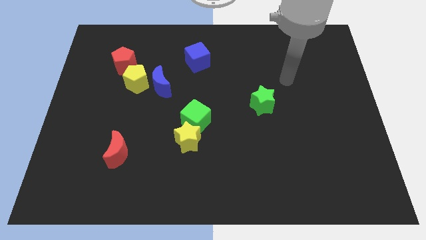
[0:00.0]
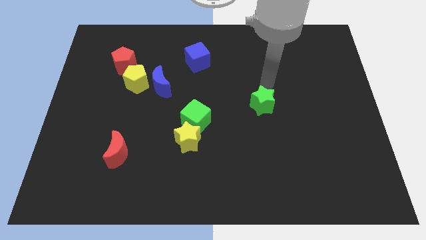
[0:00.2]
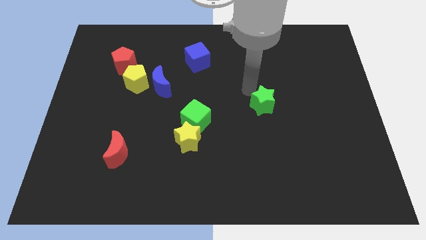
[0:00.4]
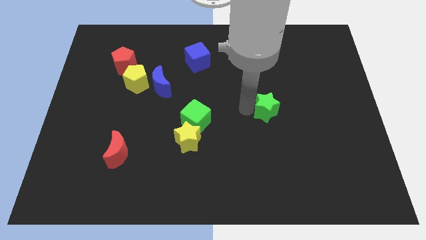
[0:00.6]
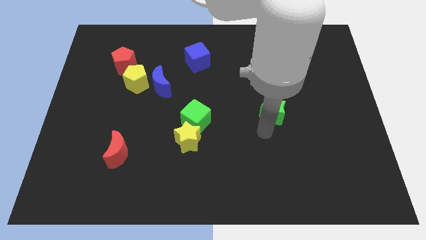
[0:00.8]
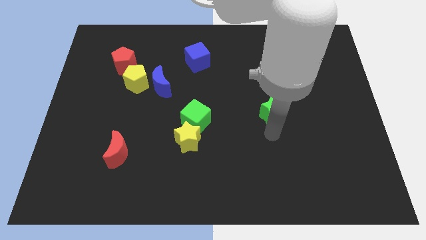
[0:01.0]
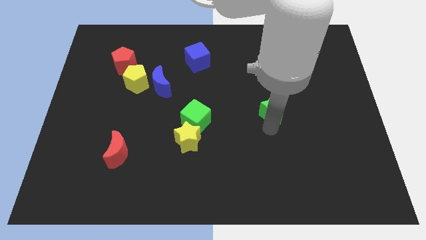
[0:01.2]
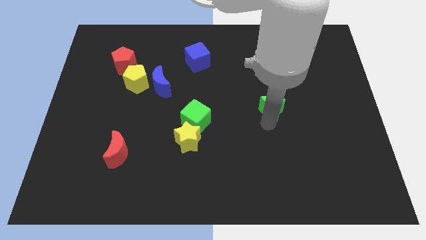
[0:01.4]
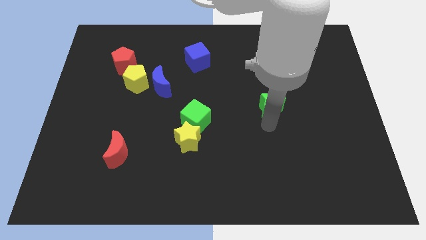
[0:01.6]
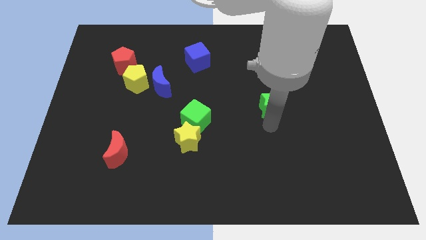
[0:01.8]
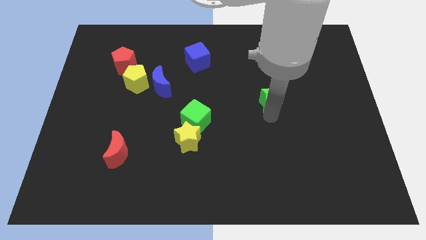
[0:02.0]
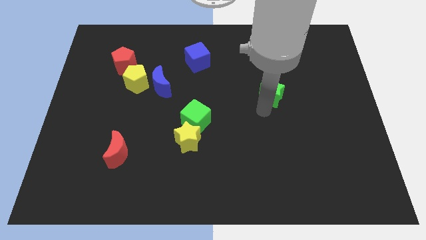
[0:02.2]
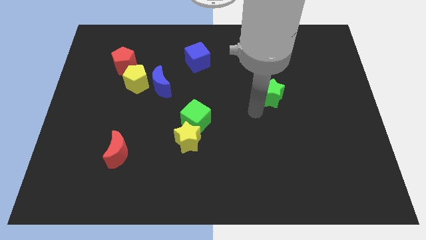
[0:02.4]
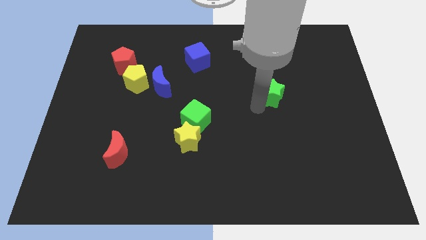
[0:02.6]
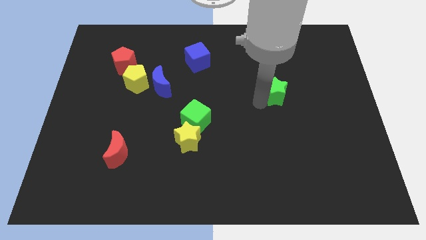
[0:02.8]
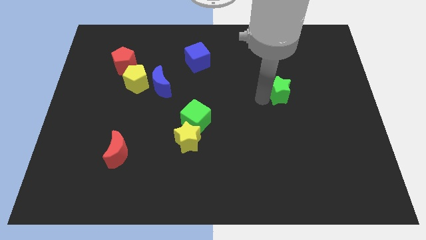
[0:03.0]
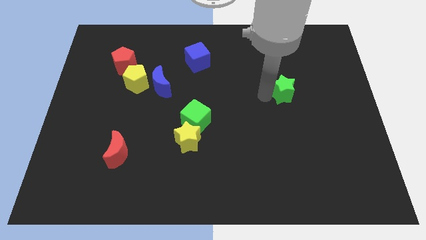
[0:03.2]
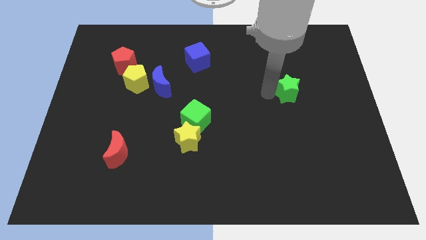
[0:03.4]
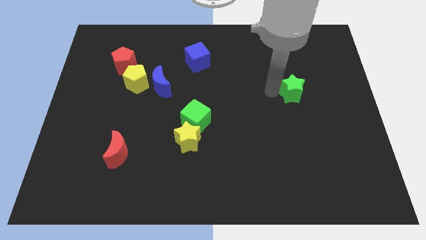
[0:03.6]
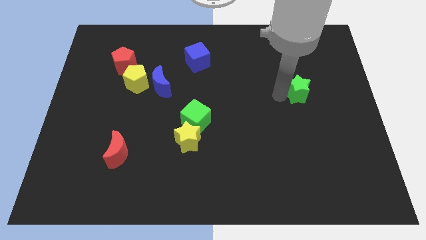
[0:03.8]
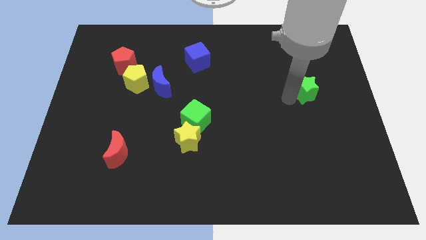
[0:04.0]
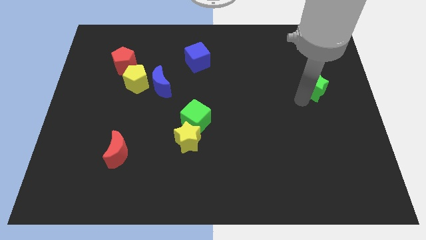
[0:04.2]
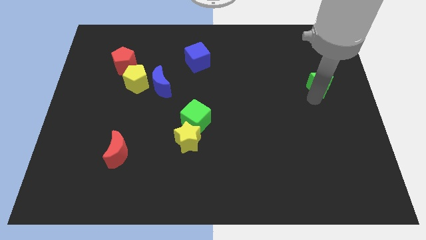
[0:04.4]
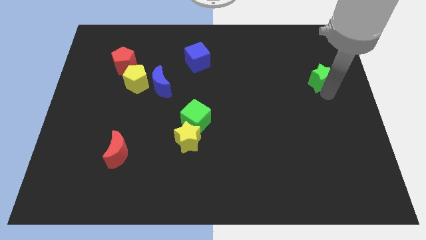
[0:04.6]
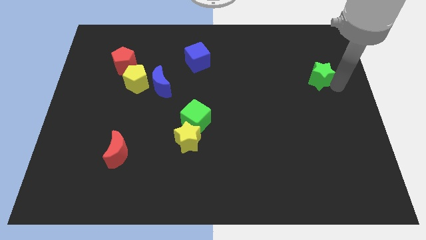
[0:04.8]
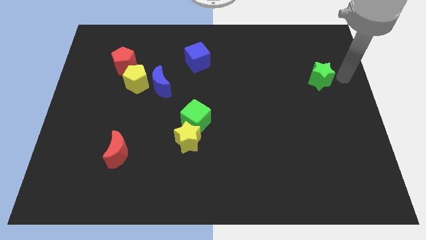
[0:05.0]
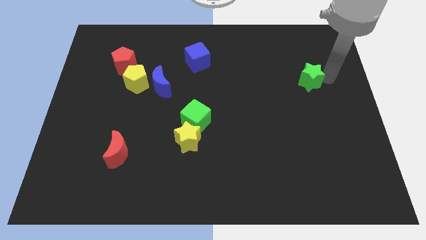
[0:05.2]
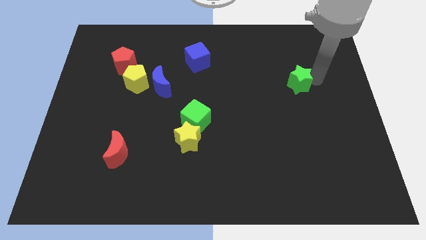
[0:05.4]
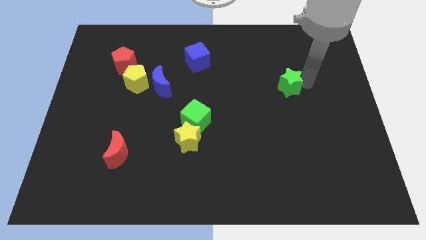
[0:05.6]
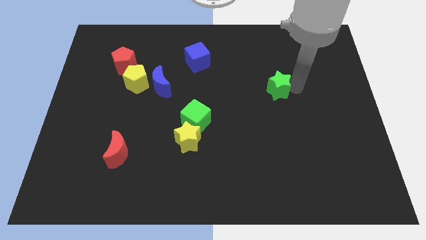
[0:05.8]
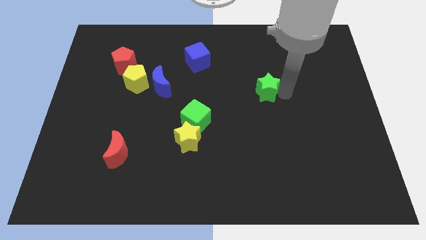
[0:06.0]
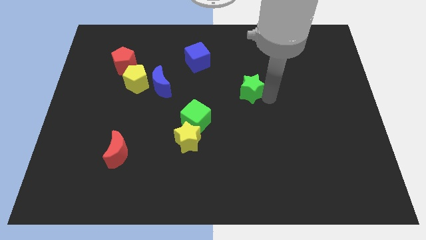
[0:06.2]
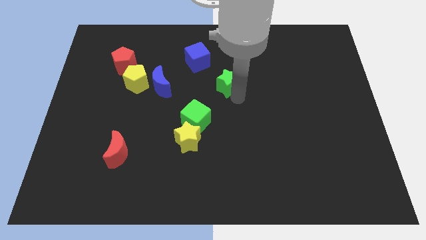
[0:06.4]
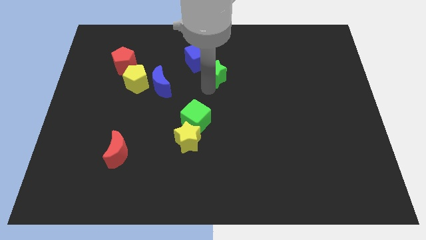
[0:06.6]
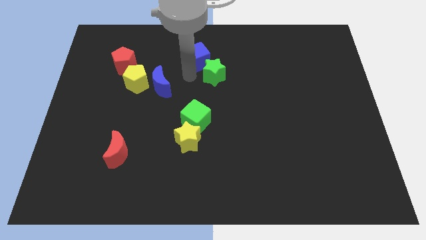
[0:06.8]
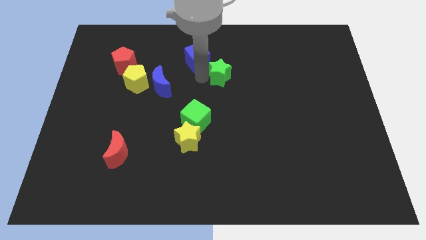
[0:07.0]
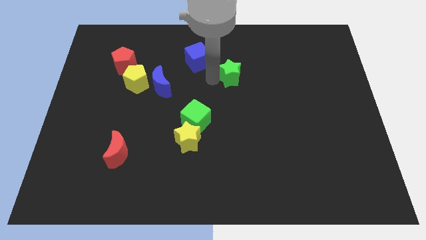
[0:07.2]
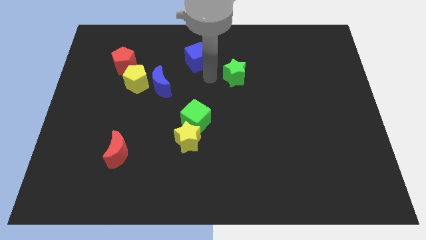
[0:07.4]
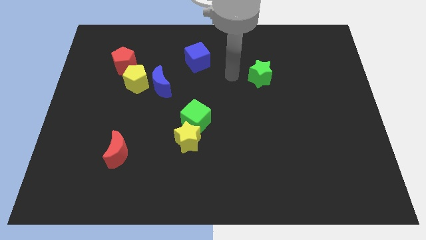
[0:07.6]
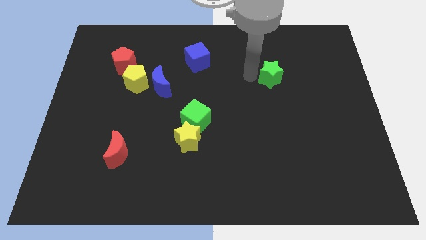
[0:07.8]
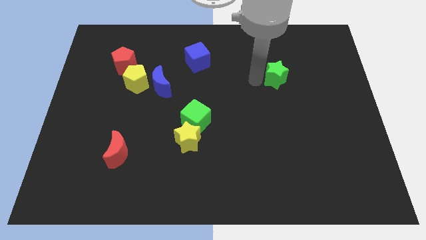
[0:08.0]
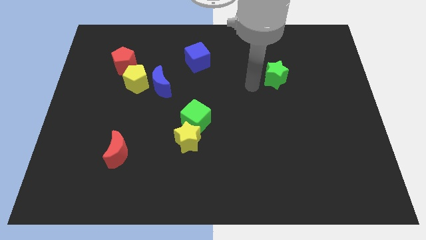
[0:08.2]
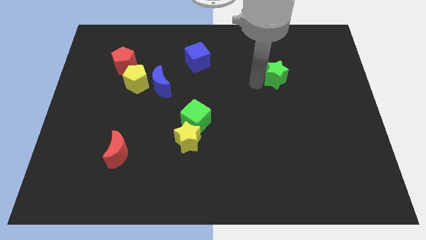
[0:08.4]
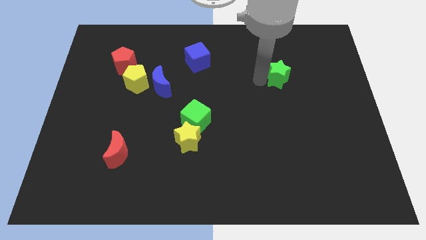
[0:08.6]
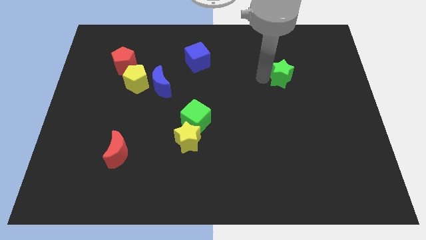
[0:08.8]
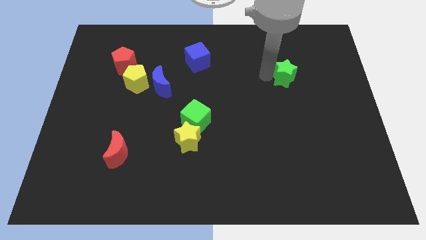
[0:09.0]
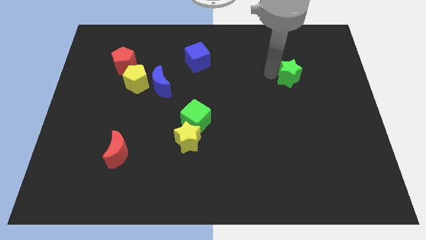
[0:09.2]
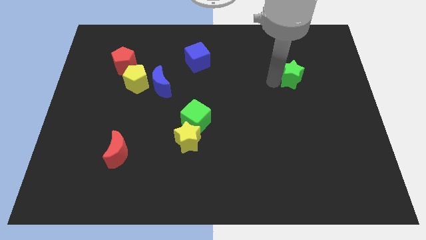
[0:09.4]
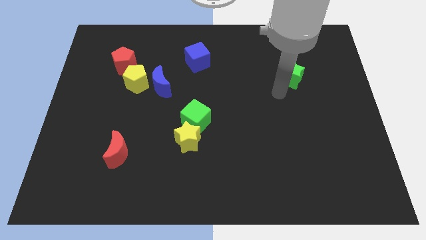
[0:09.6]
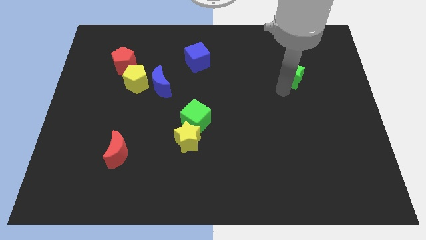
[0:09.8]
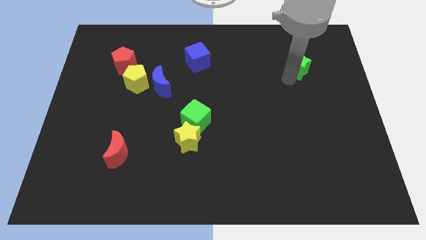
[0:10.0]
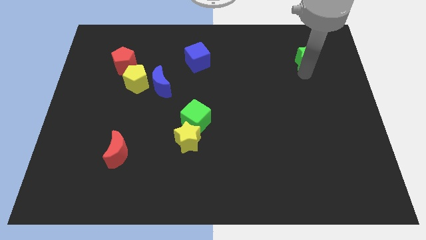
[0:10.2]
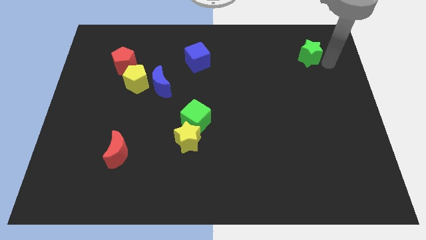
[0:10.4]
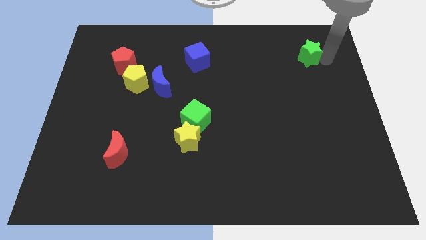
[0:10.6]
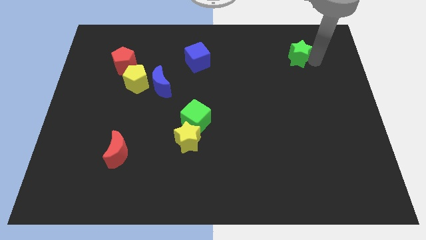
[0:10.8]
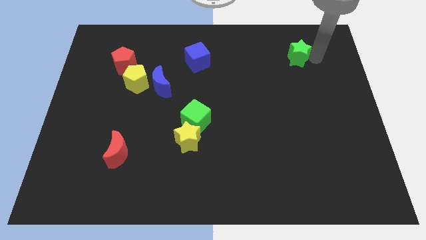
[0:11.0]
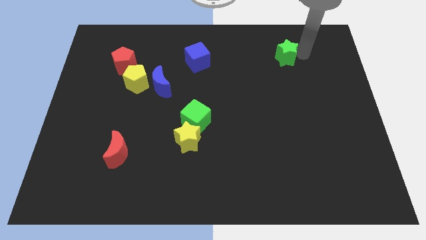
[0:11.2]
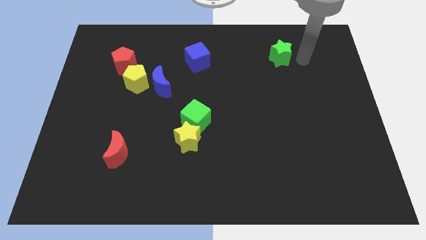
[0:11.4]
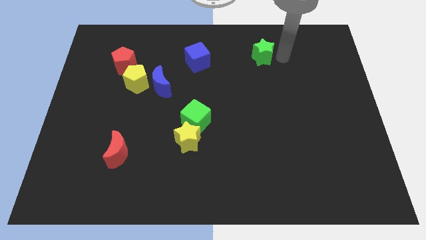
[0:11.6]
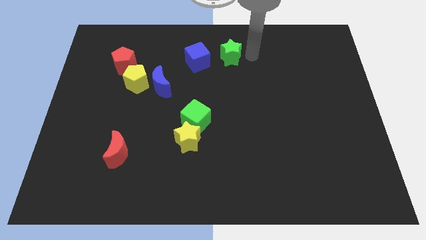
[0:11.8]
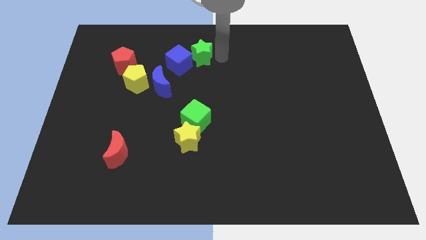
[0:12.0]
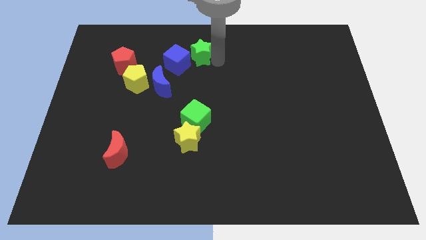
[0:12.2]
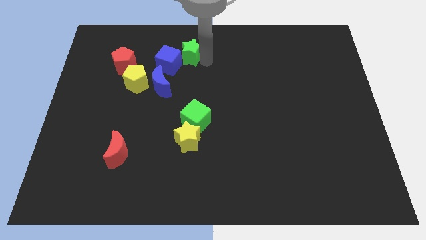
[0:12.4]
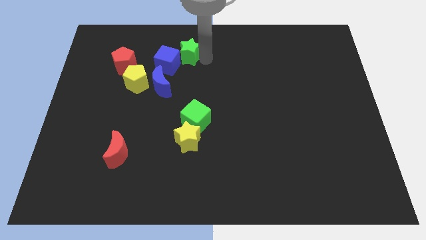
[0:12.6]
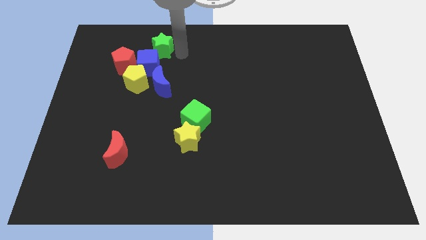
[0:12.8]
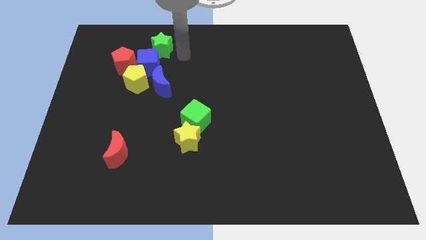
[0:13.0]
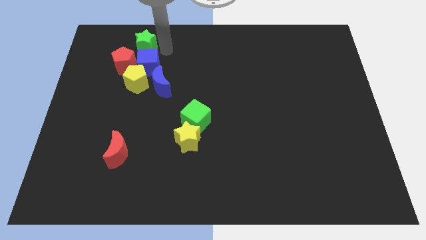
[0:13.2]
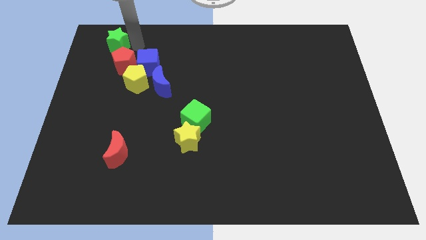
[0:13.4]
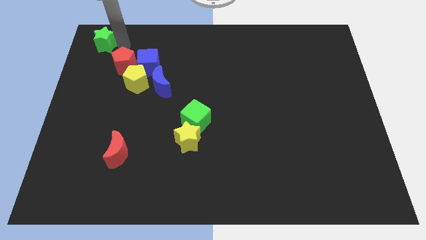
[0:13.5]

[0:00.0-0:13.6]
put the green star to the upper left corner
